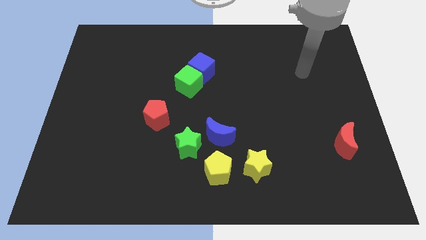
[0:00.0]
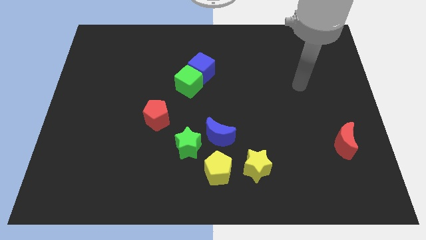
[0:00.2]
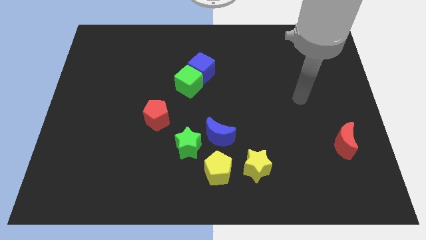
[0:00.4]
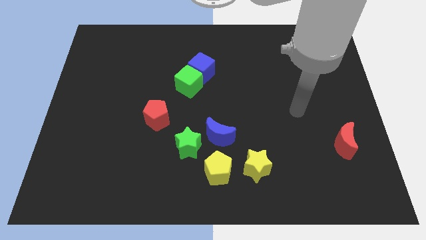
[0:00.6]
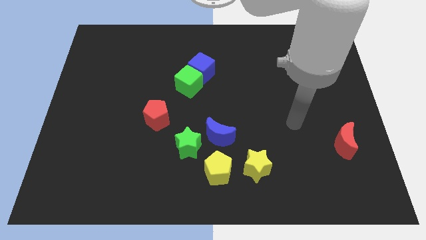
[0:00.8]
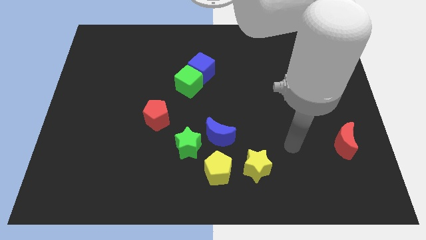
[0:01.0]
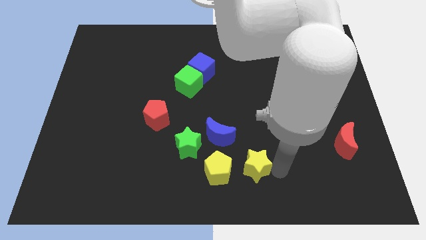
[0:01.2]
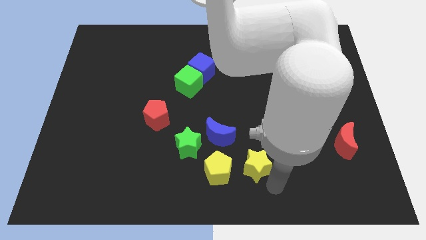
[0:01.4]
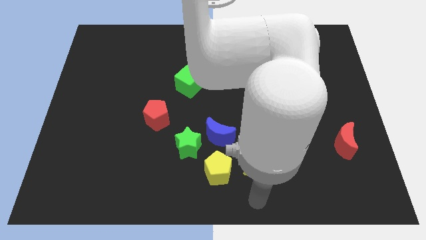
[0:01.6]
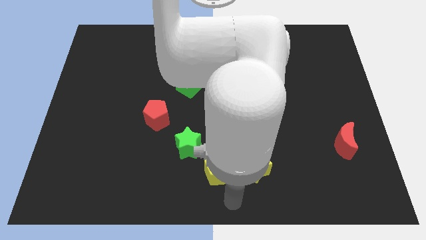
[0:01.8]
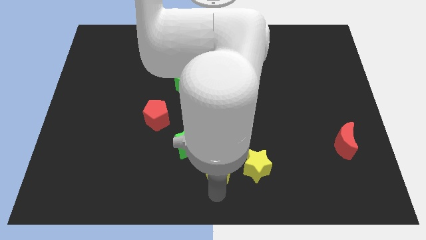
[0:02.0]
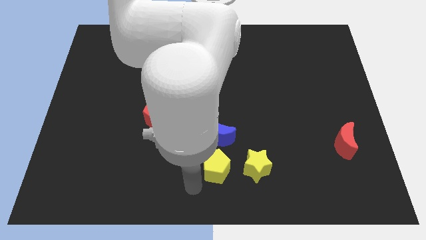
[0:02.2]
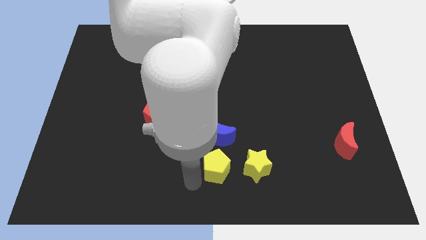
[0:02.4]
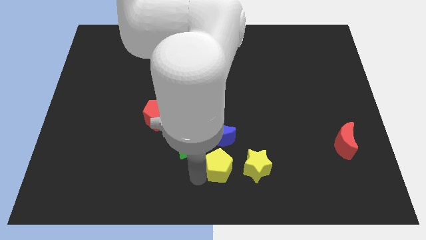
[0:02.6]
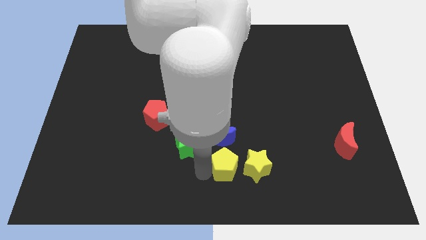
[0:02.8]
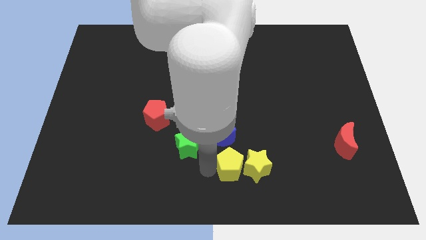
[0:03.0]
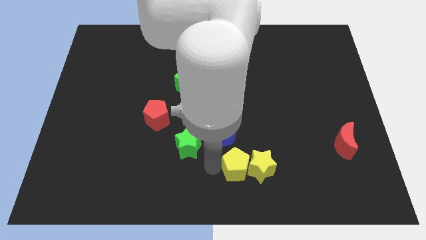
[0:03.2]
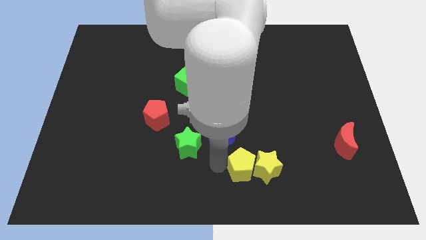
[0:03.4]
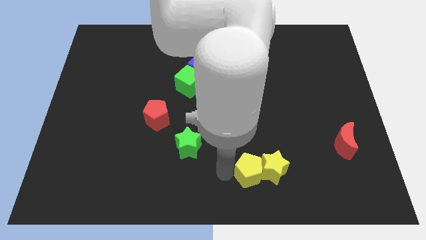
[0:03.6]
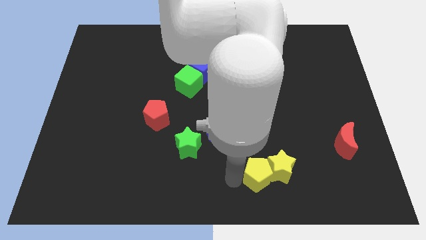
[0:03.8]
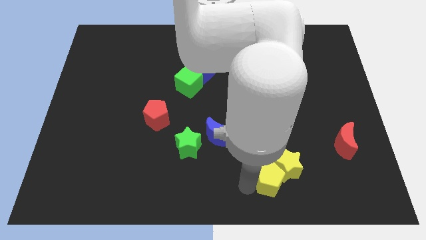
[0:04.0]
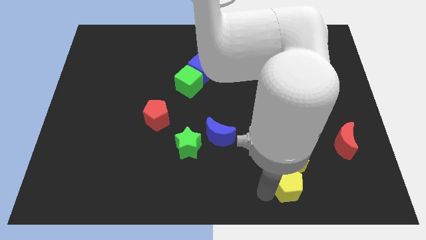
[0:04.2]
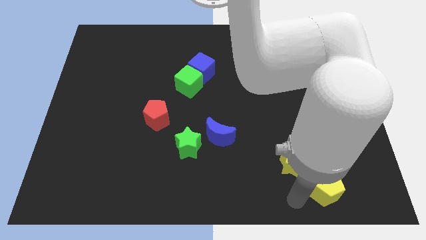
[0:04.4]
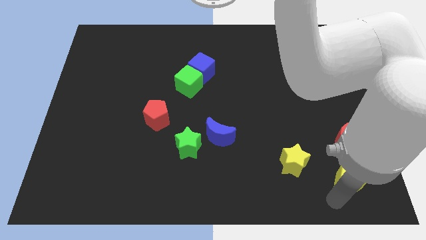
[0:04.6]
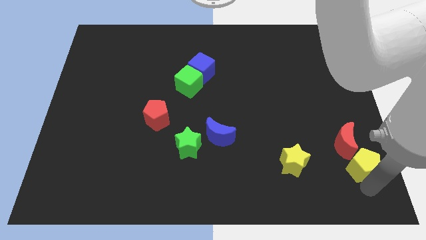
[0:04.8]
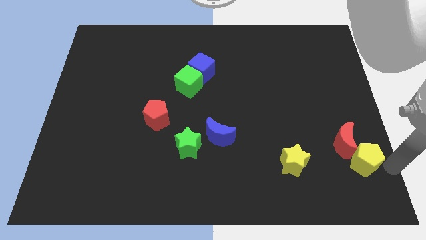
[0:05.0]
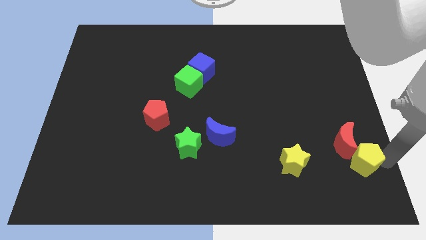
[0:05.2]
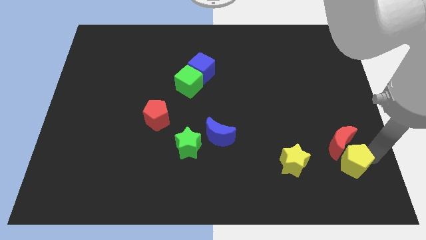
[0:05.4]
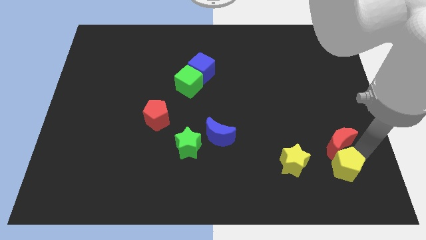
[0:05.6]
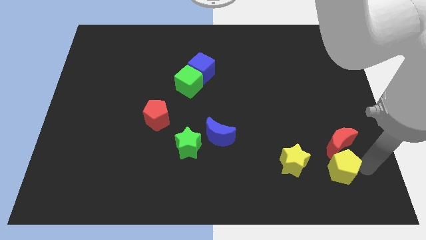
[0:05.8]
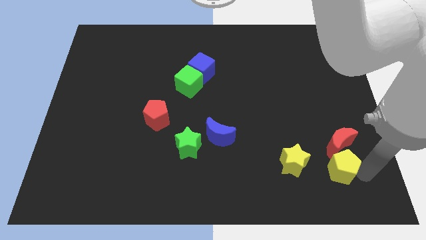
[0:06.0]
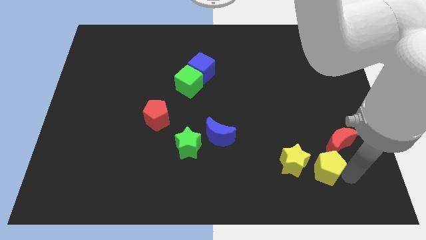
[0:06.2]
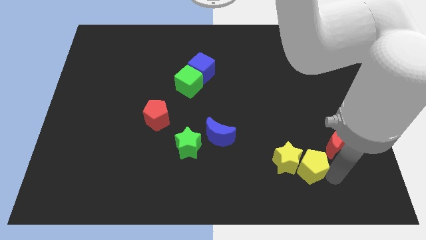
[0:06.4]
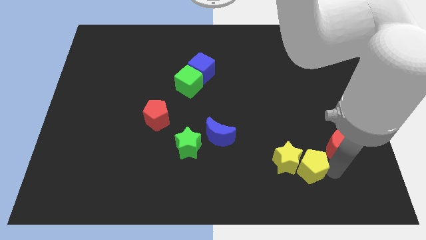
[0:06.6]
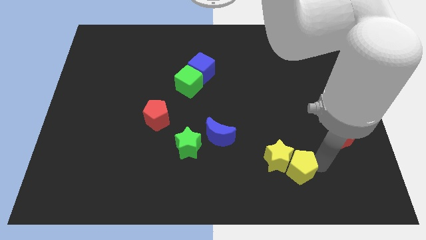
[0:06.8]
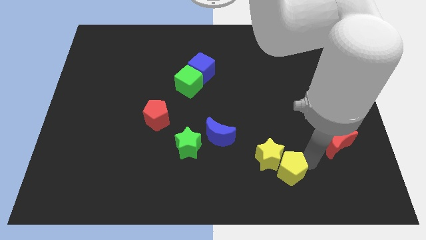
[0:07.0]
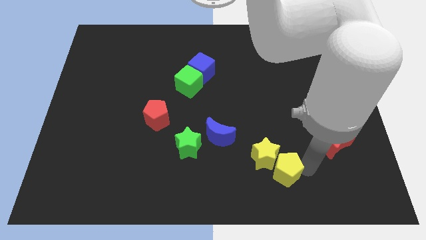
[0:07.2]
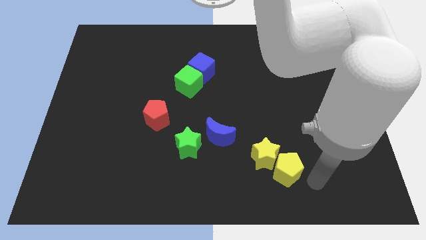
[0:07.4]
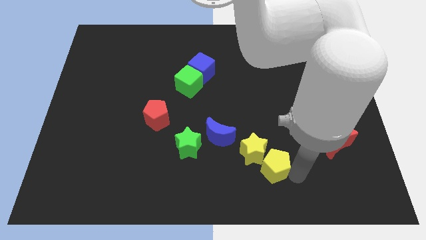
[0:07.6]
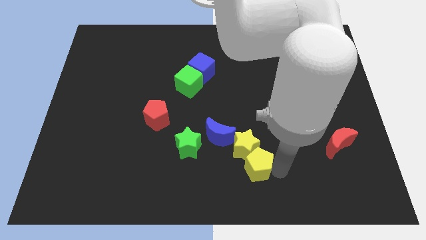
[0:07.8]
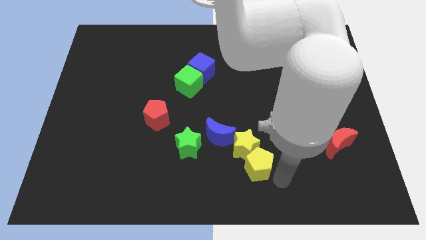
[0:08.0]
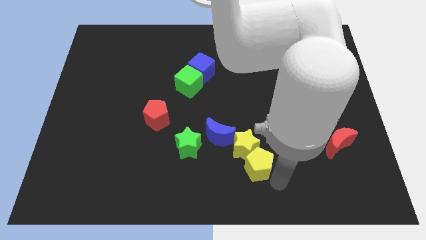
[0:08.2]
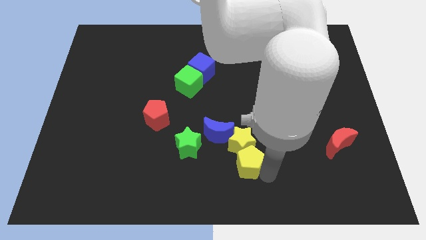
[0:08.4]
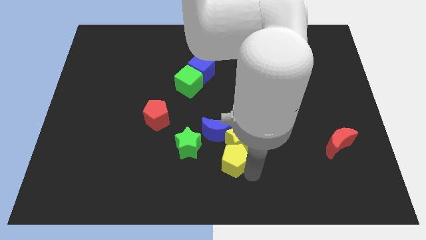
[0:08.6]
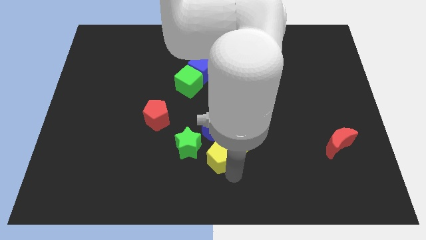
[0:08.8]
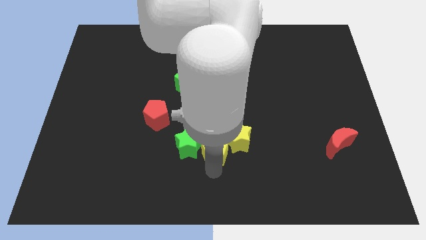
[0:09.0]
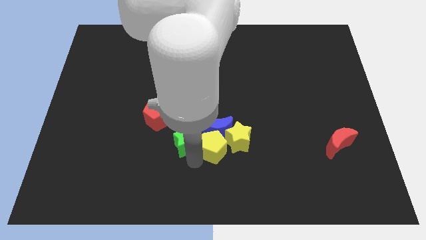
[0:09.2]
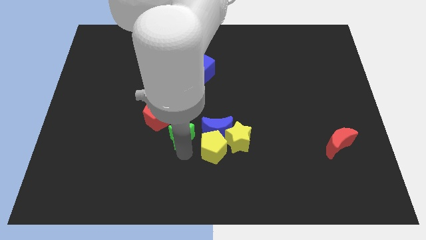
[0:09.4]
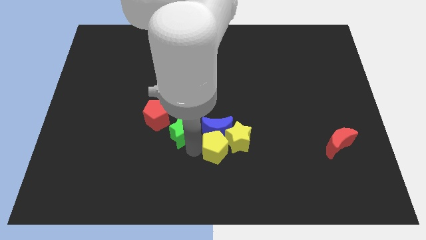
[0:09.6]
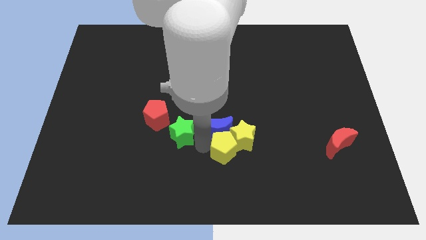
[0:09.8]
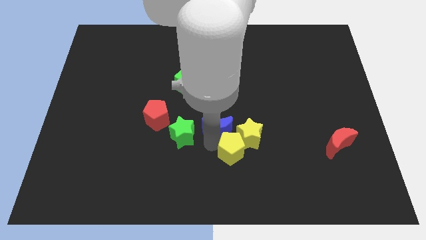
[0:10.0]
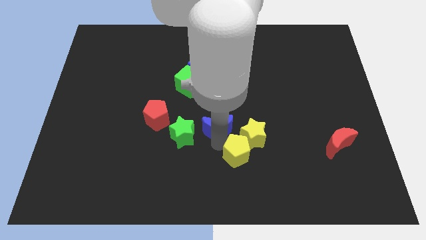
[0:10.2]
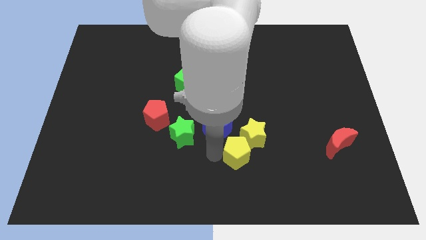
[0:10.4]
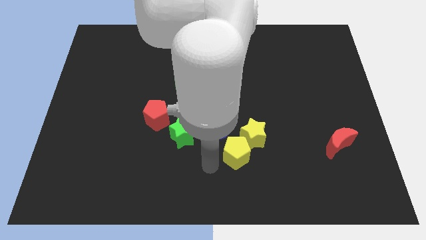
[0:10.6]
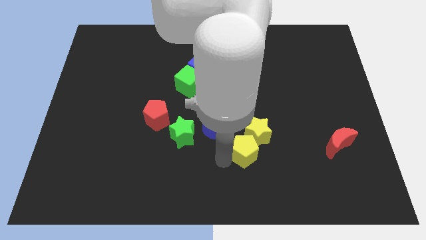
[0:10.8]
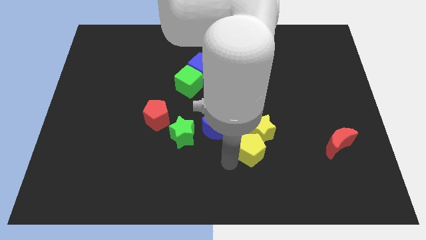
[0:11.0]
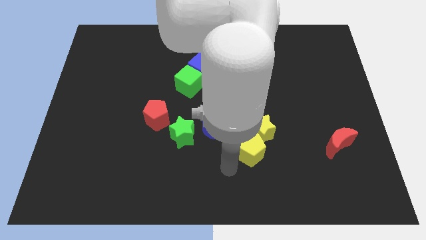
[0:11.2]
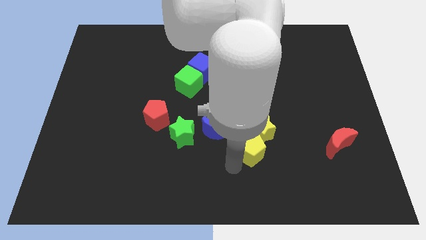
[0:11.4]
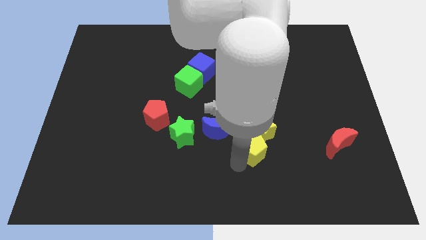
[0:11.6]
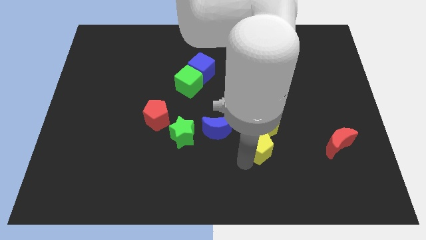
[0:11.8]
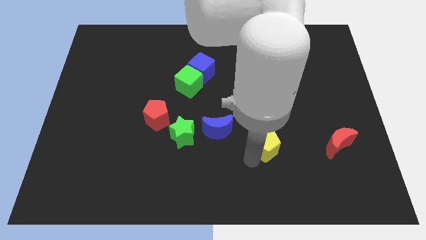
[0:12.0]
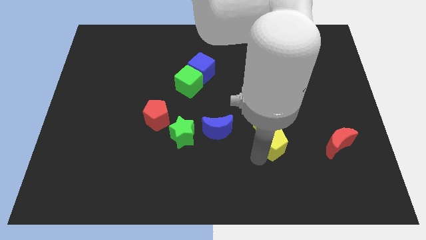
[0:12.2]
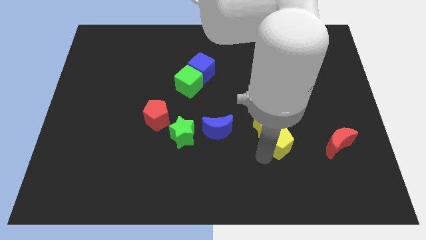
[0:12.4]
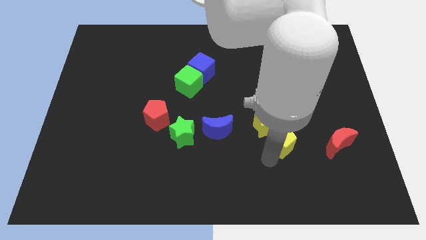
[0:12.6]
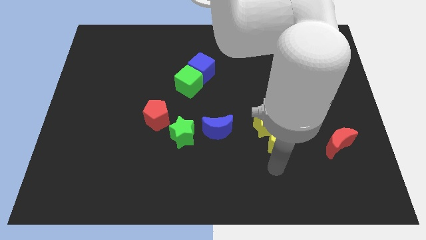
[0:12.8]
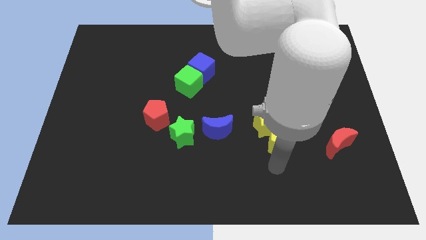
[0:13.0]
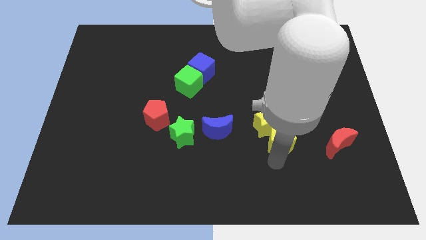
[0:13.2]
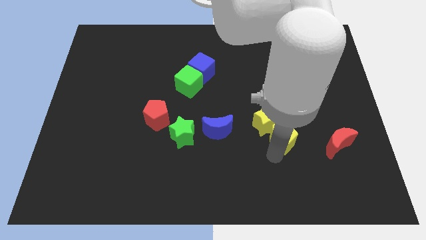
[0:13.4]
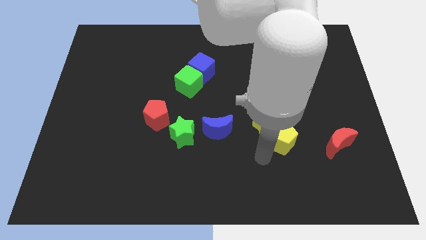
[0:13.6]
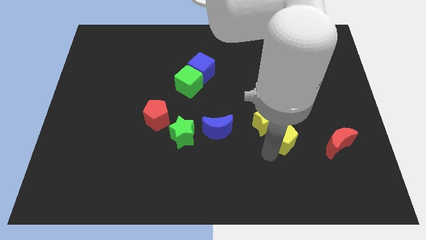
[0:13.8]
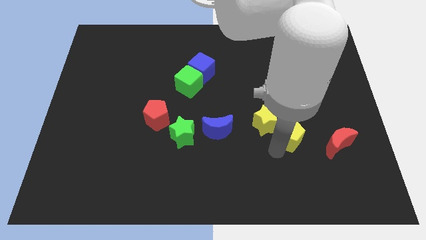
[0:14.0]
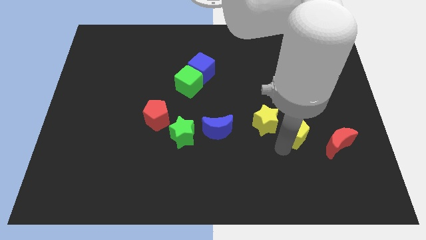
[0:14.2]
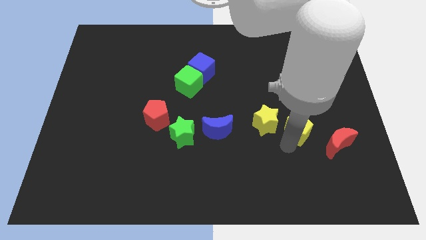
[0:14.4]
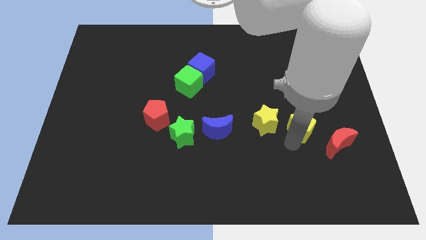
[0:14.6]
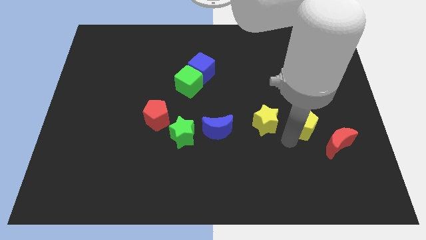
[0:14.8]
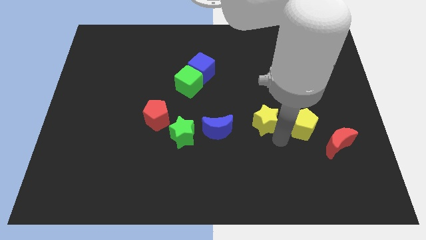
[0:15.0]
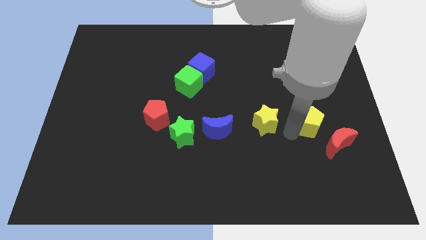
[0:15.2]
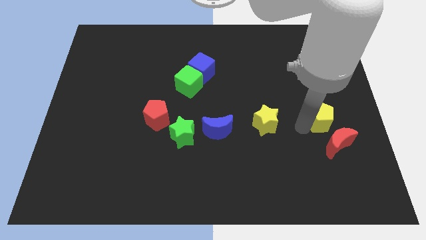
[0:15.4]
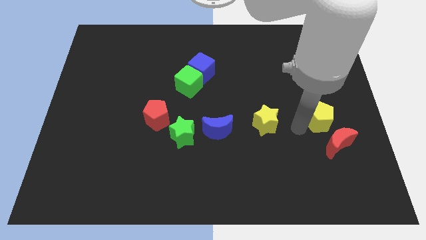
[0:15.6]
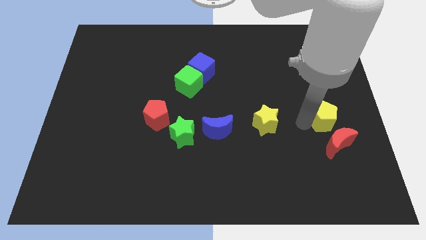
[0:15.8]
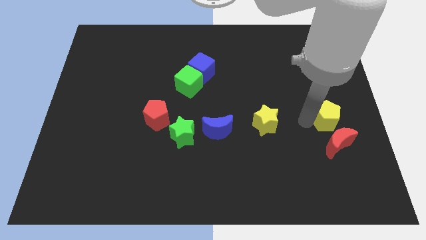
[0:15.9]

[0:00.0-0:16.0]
push the yellow pentagon to the right side of the board
